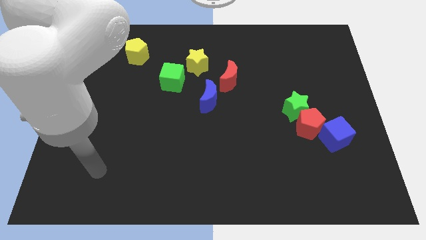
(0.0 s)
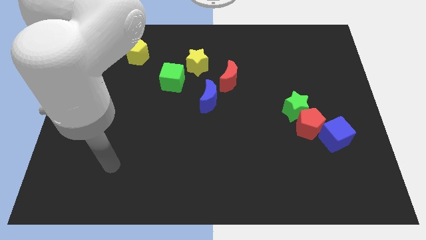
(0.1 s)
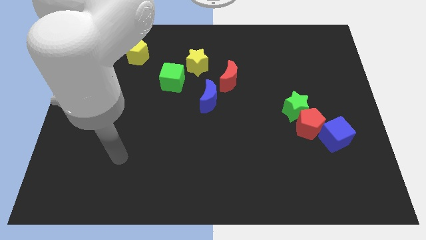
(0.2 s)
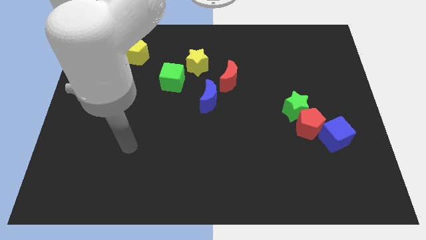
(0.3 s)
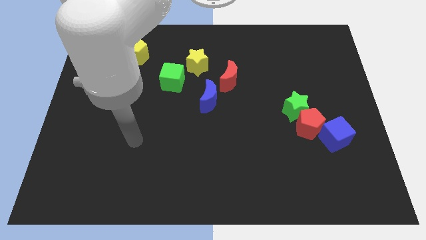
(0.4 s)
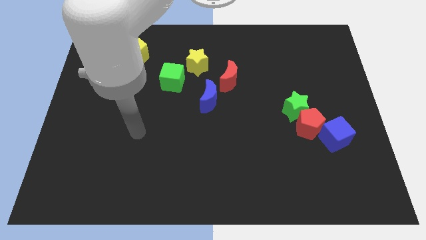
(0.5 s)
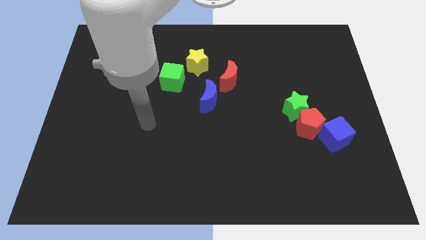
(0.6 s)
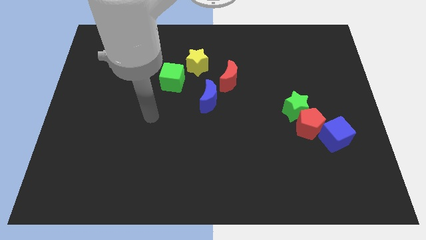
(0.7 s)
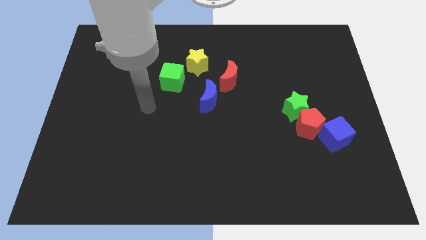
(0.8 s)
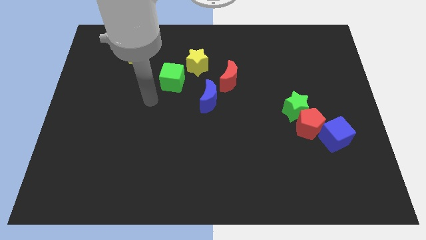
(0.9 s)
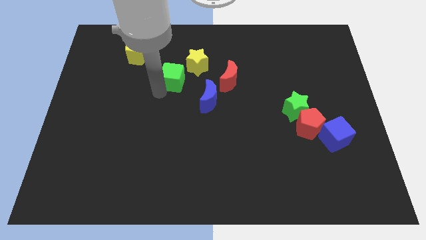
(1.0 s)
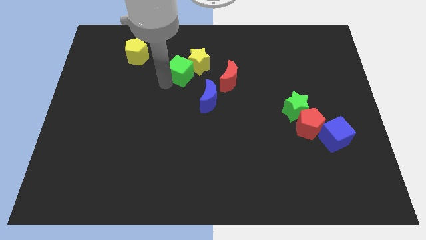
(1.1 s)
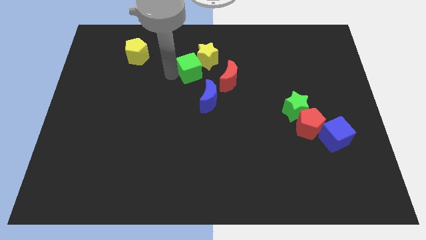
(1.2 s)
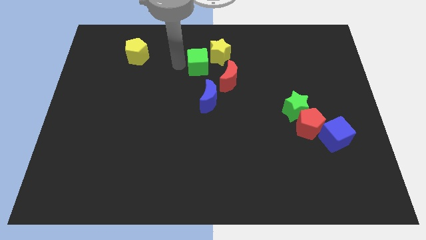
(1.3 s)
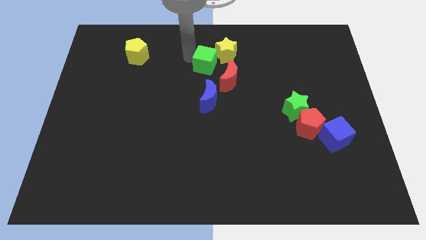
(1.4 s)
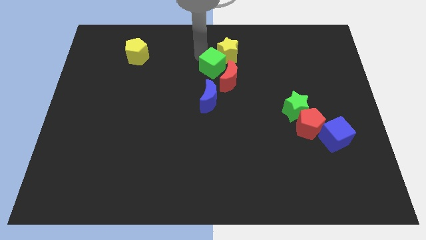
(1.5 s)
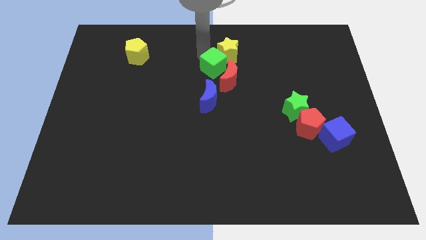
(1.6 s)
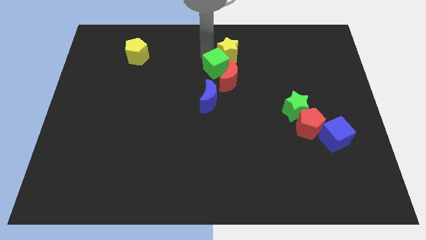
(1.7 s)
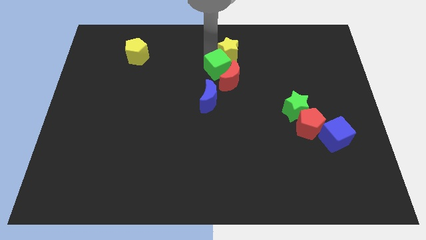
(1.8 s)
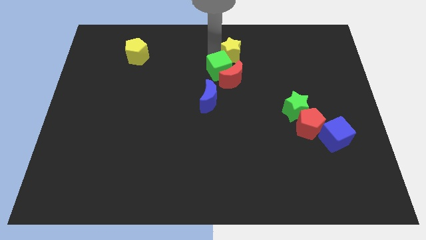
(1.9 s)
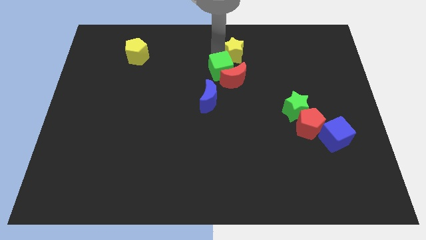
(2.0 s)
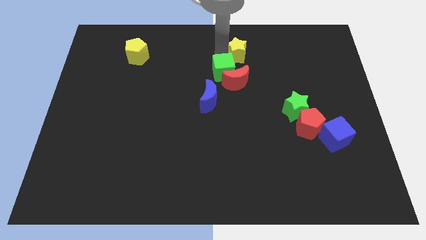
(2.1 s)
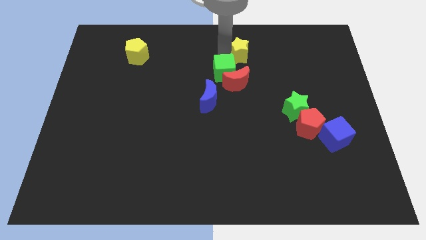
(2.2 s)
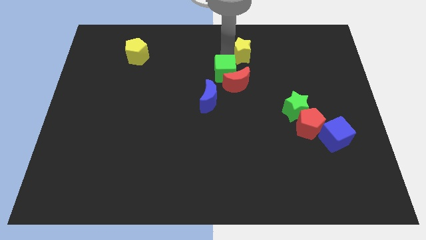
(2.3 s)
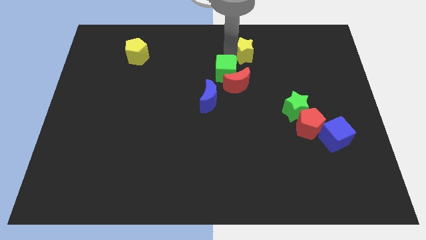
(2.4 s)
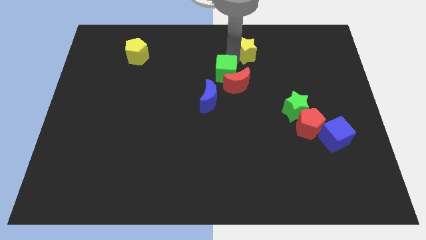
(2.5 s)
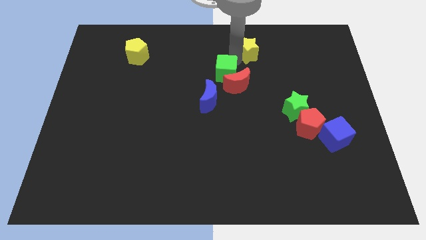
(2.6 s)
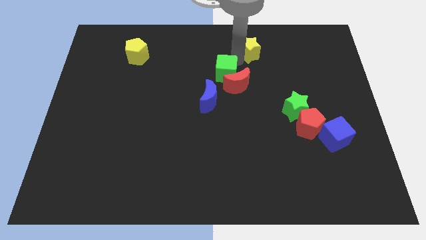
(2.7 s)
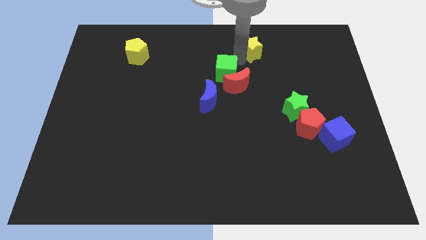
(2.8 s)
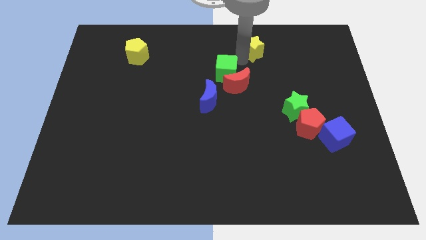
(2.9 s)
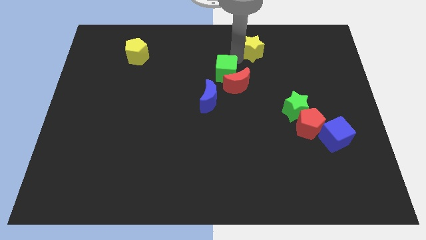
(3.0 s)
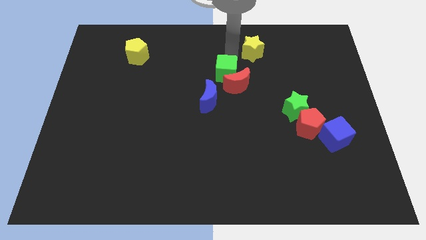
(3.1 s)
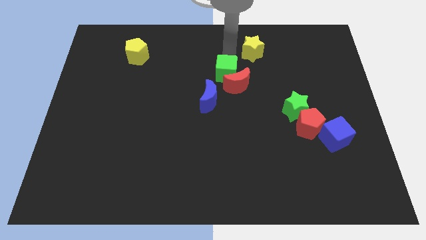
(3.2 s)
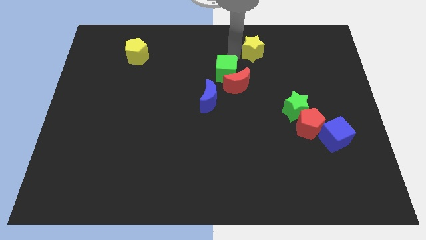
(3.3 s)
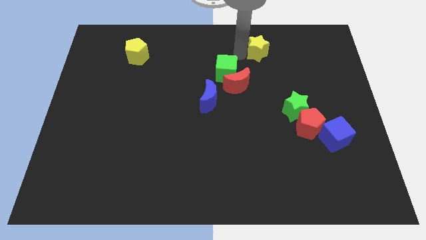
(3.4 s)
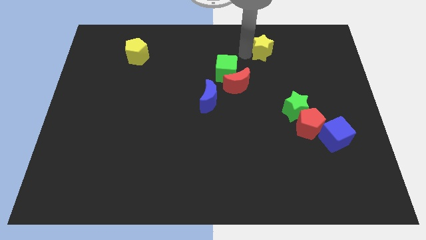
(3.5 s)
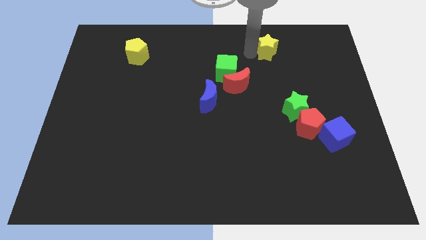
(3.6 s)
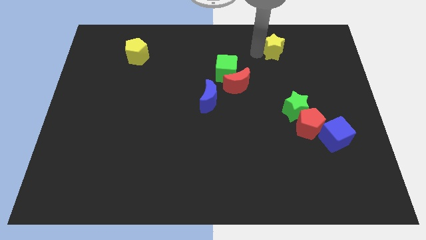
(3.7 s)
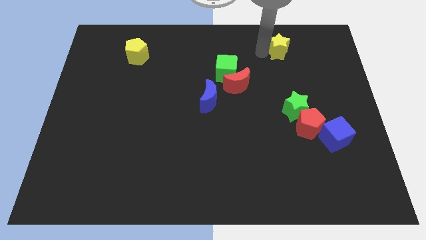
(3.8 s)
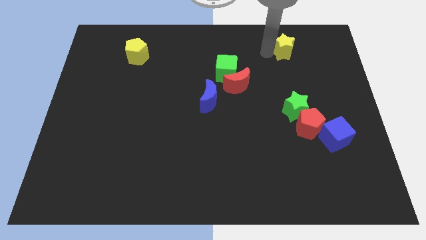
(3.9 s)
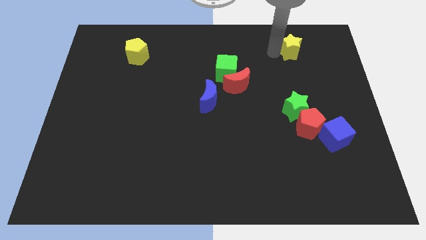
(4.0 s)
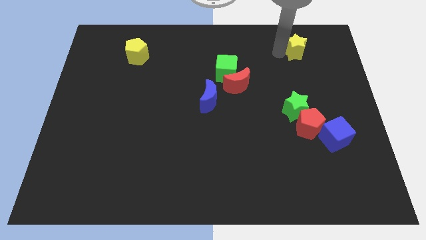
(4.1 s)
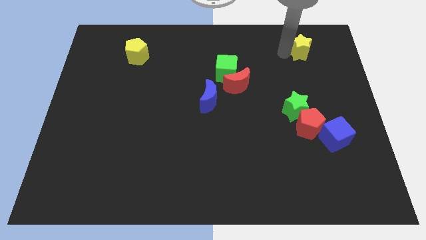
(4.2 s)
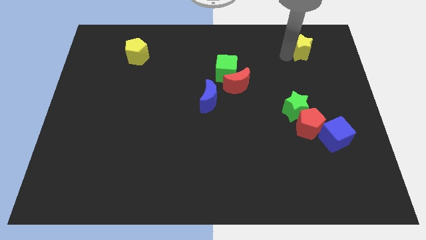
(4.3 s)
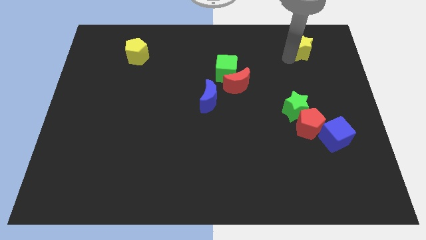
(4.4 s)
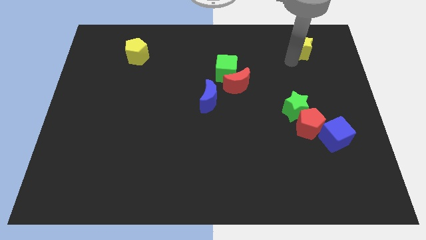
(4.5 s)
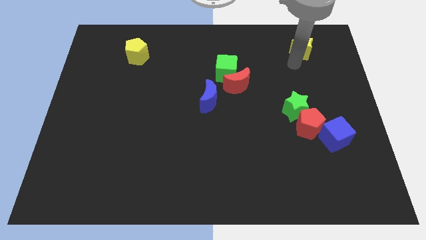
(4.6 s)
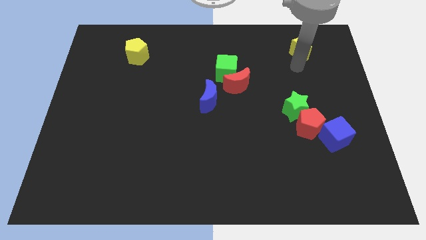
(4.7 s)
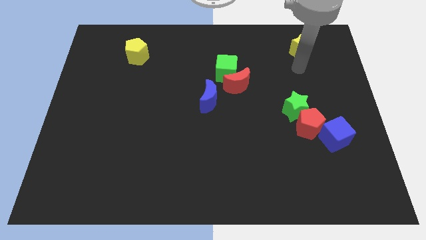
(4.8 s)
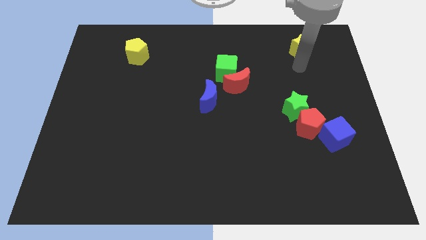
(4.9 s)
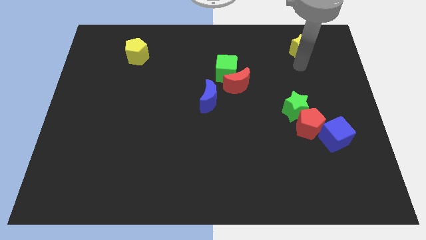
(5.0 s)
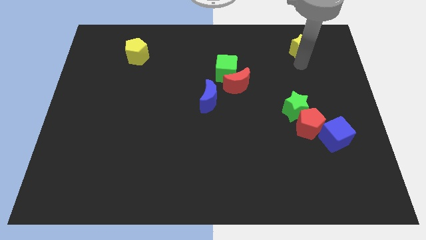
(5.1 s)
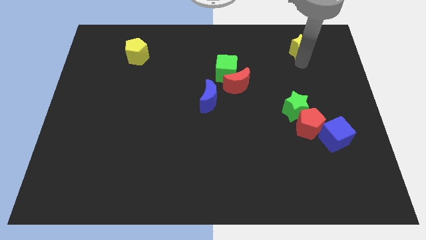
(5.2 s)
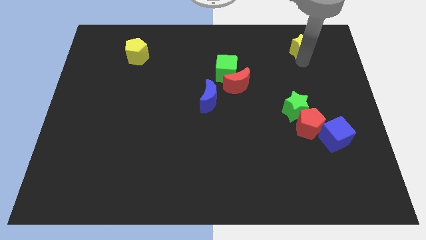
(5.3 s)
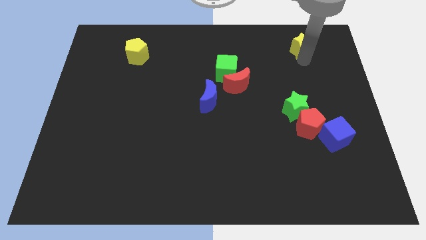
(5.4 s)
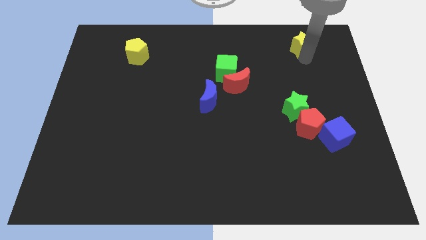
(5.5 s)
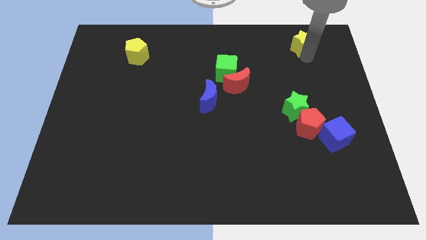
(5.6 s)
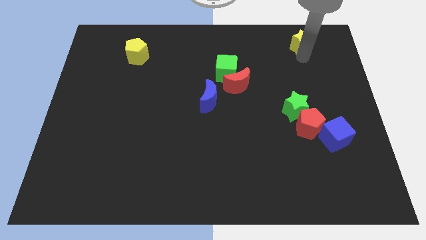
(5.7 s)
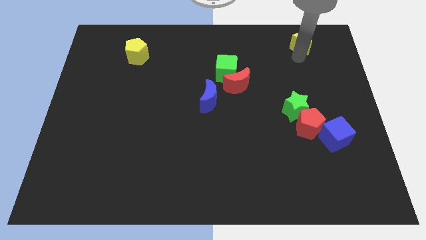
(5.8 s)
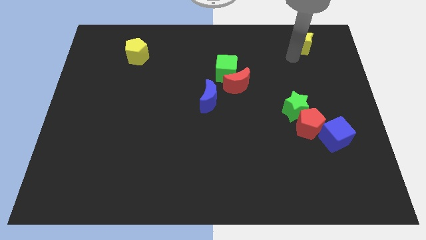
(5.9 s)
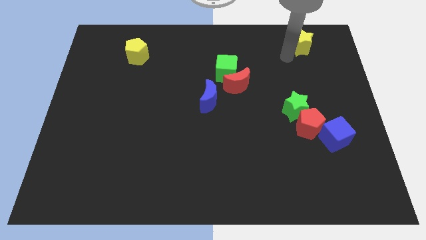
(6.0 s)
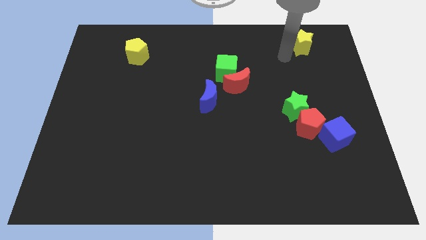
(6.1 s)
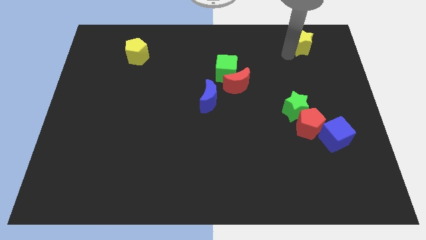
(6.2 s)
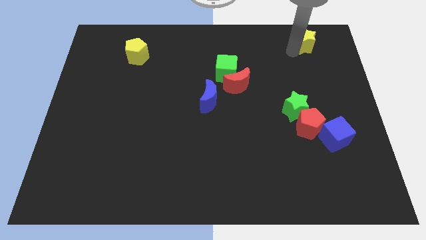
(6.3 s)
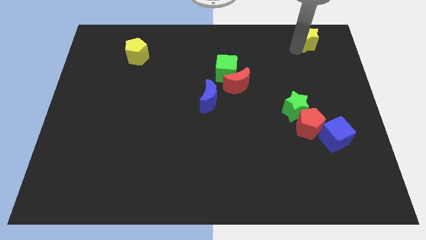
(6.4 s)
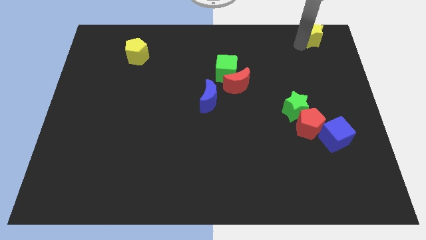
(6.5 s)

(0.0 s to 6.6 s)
put the yellow star to the upper right corner
